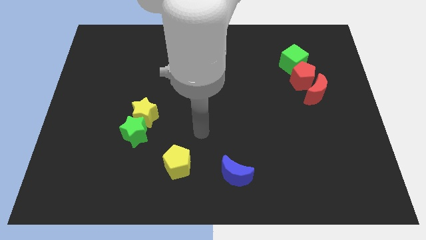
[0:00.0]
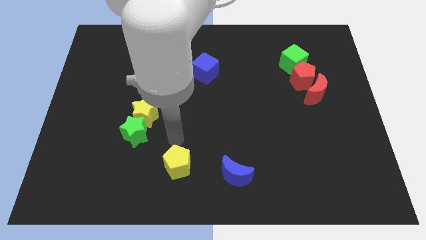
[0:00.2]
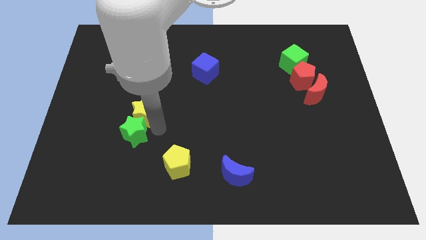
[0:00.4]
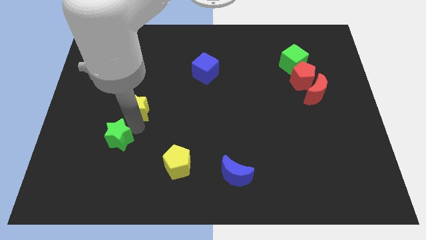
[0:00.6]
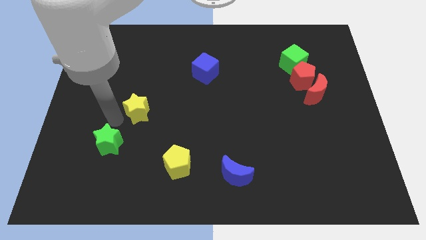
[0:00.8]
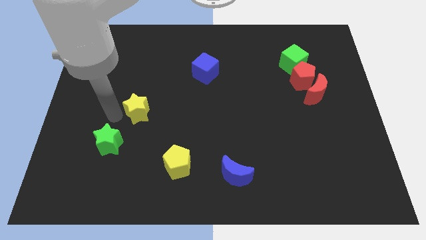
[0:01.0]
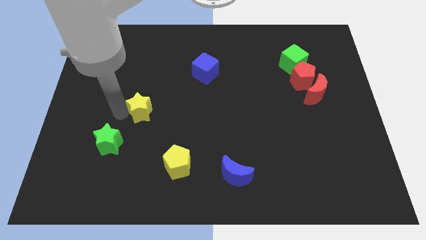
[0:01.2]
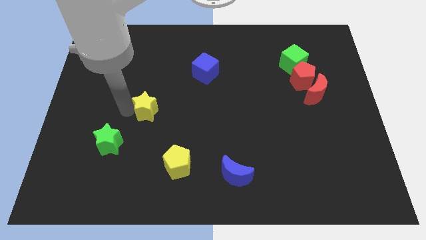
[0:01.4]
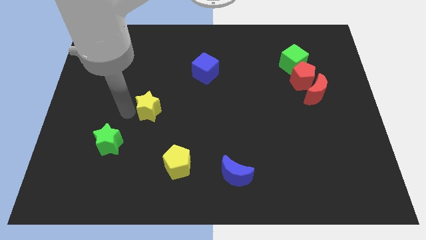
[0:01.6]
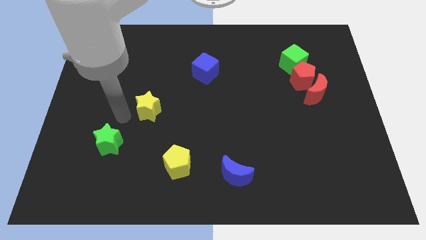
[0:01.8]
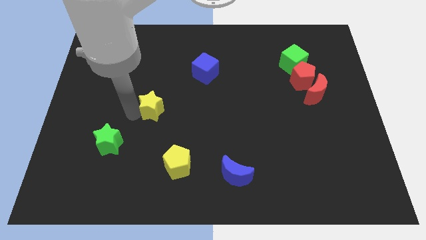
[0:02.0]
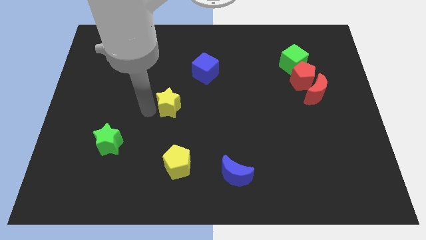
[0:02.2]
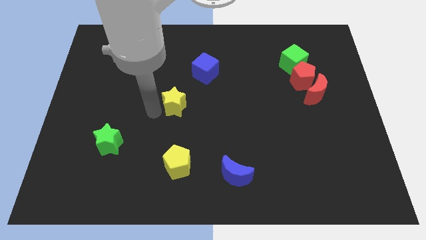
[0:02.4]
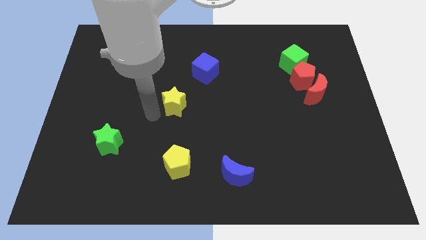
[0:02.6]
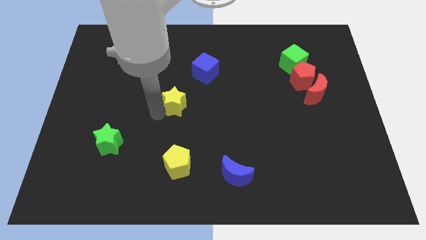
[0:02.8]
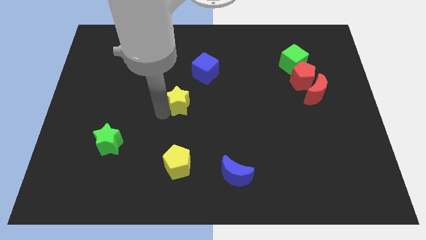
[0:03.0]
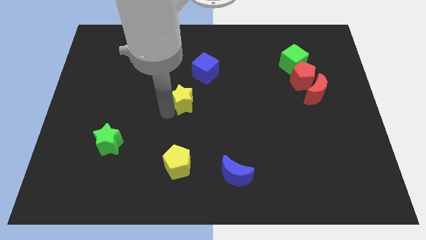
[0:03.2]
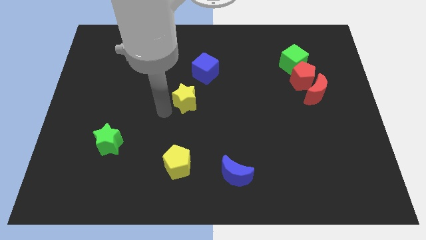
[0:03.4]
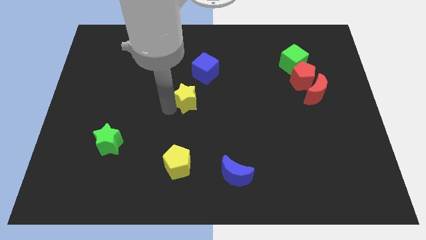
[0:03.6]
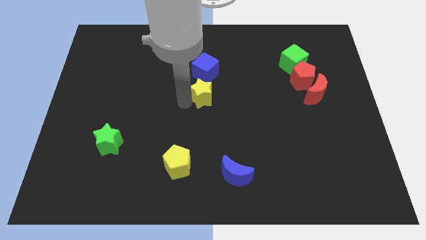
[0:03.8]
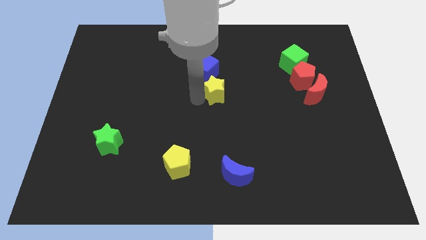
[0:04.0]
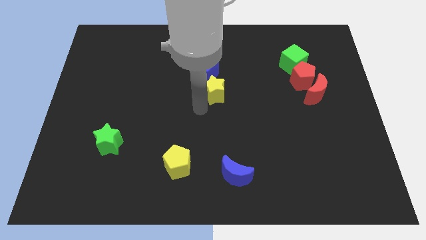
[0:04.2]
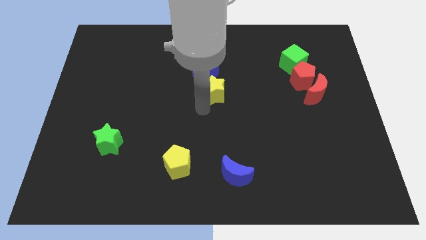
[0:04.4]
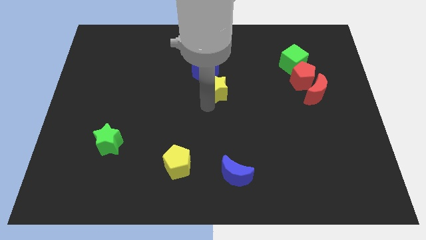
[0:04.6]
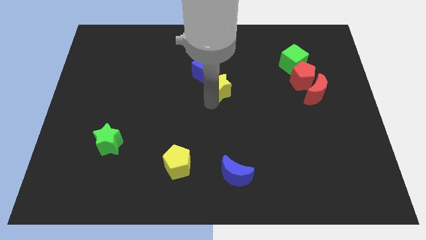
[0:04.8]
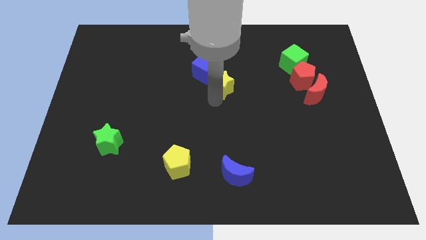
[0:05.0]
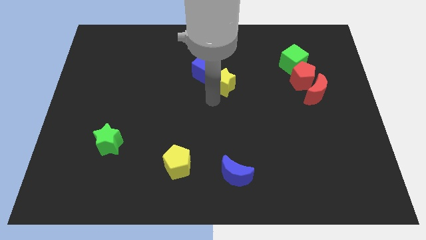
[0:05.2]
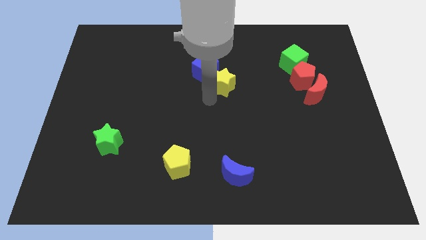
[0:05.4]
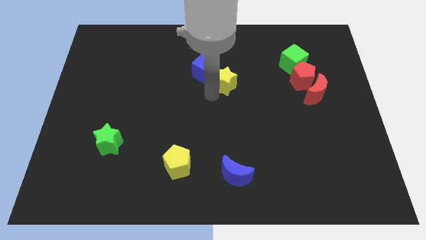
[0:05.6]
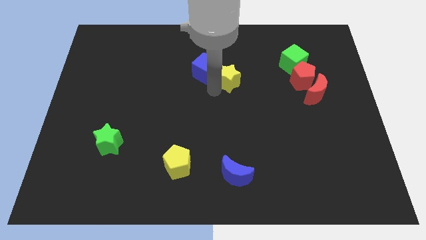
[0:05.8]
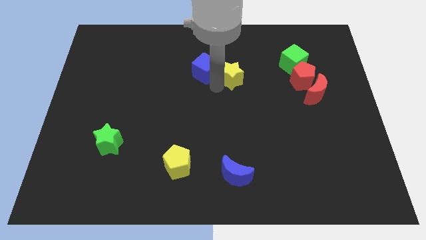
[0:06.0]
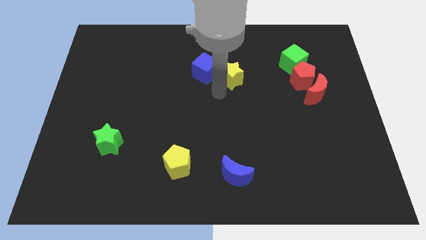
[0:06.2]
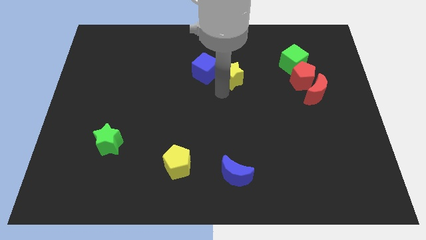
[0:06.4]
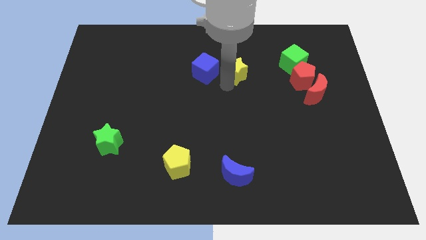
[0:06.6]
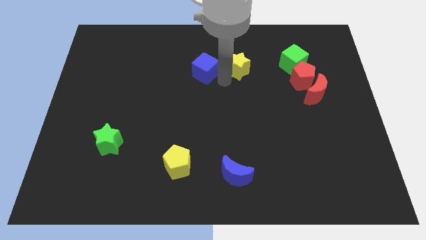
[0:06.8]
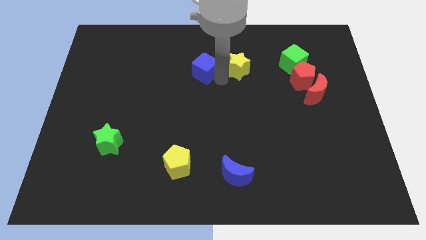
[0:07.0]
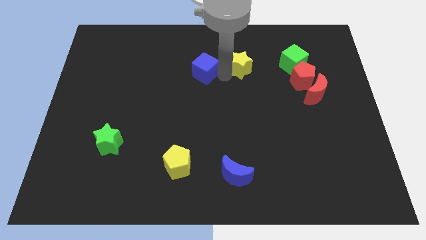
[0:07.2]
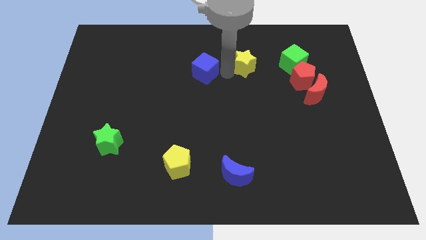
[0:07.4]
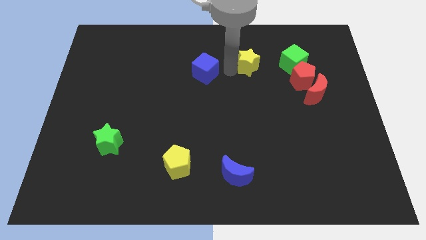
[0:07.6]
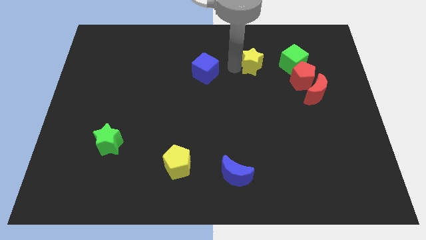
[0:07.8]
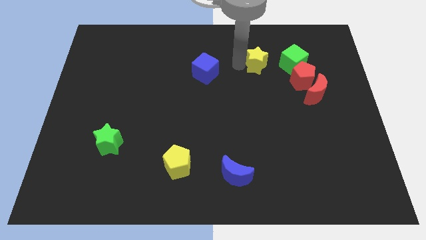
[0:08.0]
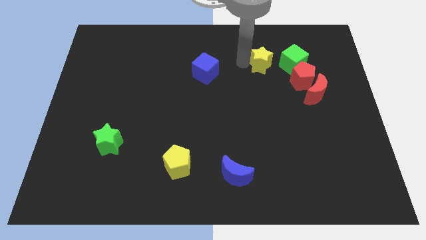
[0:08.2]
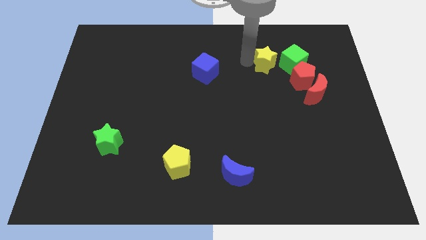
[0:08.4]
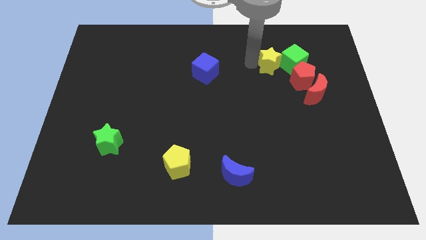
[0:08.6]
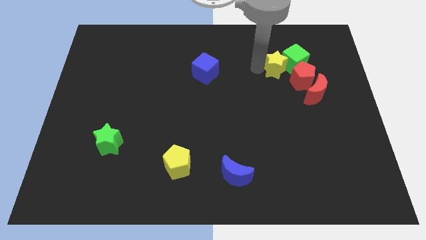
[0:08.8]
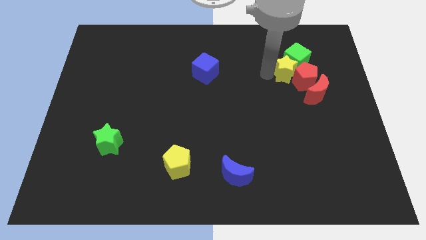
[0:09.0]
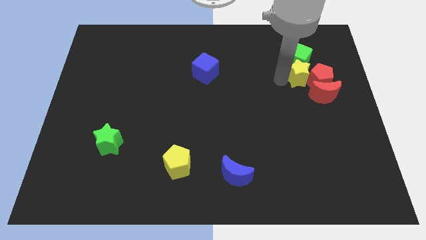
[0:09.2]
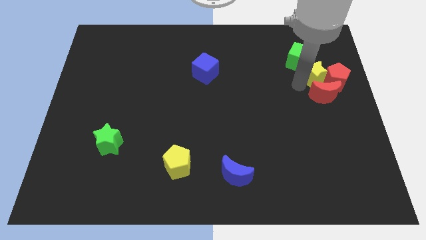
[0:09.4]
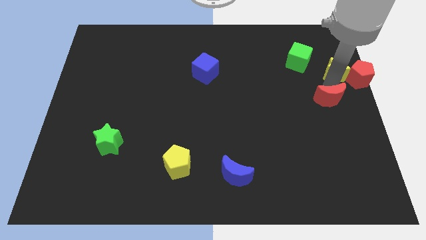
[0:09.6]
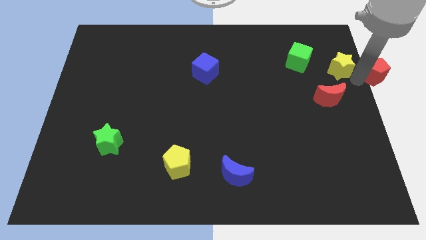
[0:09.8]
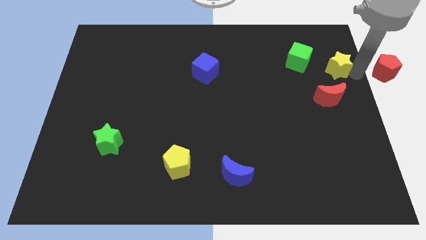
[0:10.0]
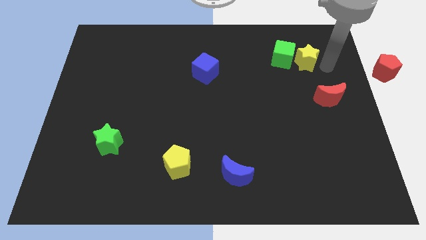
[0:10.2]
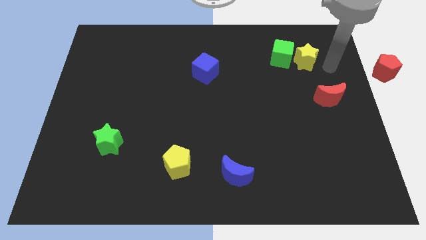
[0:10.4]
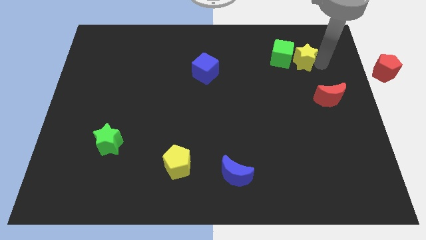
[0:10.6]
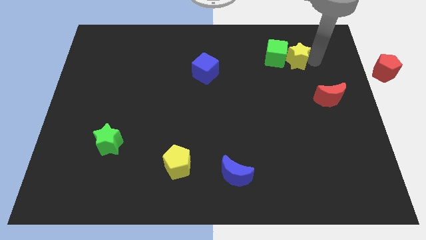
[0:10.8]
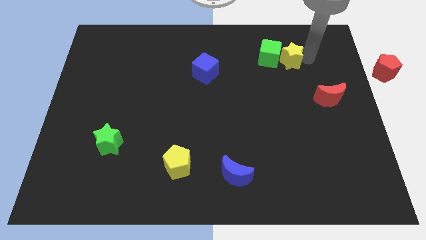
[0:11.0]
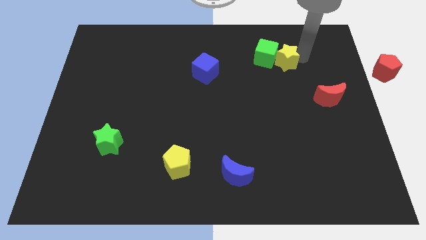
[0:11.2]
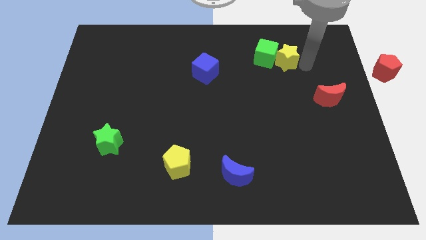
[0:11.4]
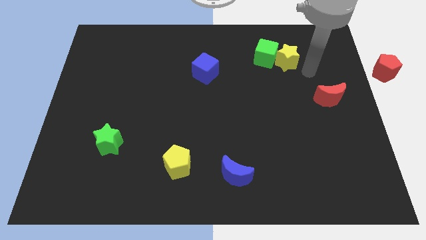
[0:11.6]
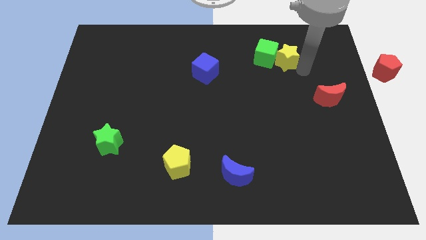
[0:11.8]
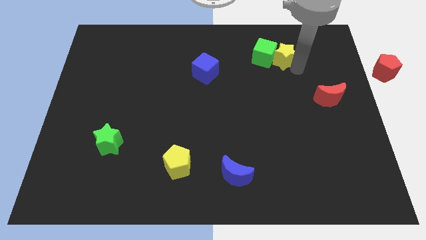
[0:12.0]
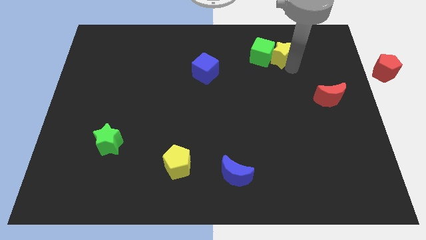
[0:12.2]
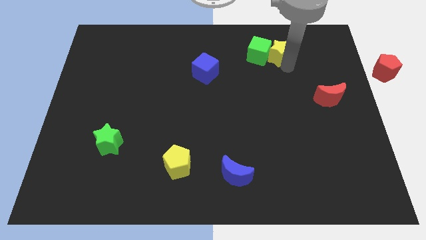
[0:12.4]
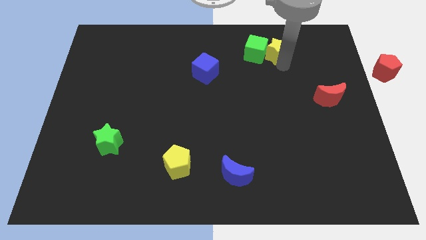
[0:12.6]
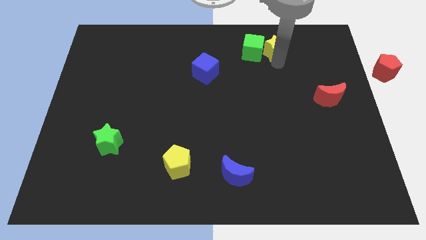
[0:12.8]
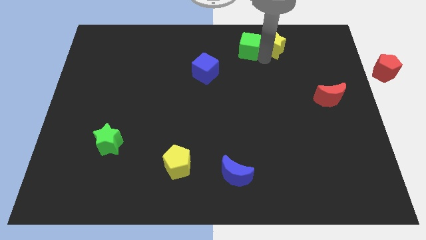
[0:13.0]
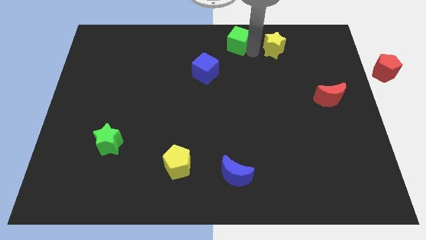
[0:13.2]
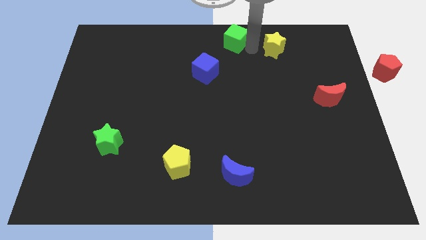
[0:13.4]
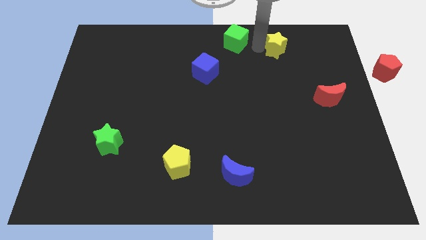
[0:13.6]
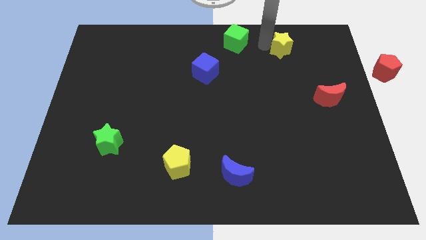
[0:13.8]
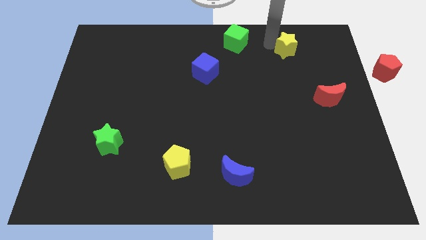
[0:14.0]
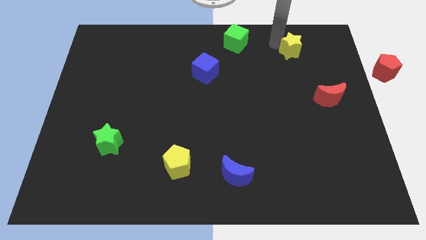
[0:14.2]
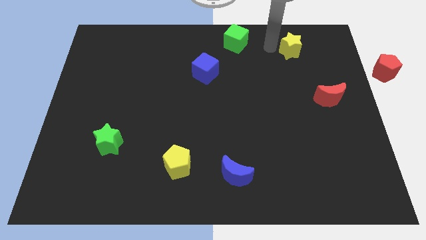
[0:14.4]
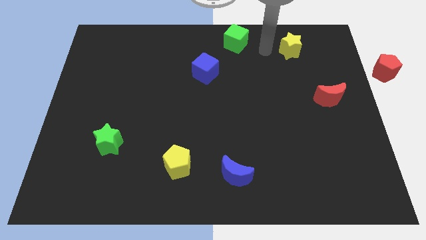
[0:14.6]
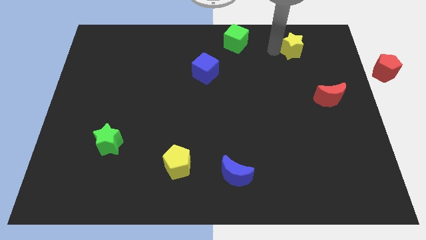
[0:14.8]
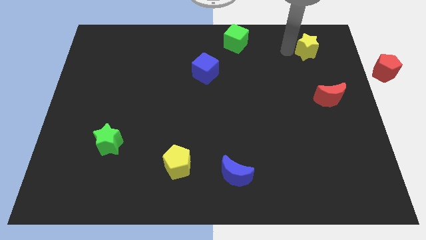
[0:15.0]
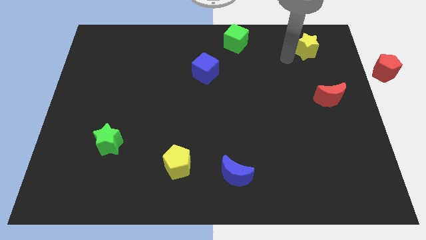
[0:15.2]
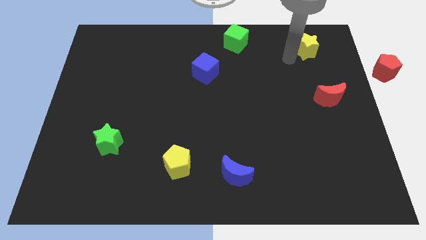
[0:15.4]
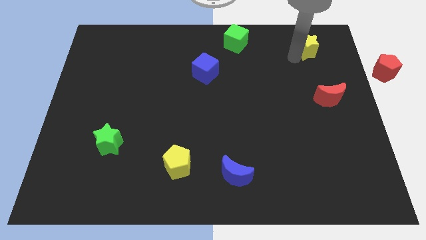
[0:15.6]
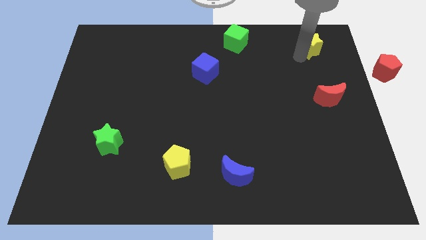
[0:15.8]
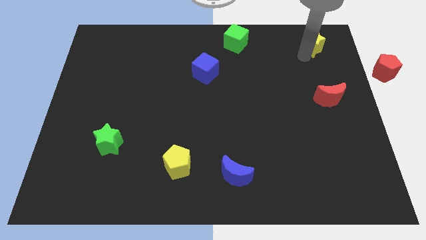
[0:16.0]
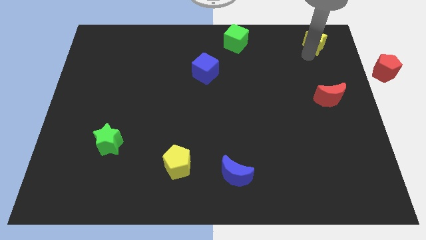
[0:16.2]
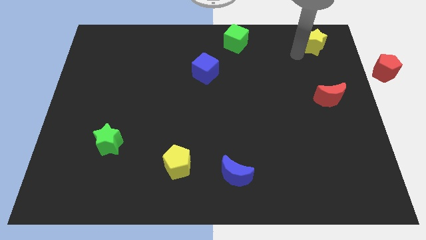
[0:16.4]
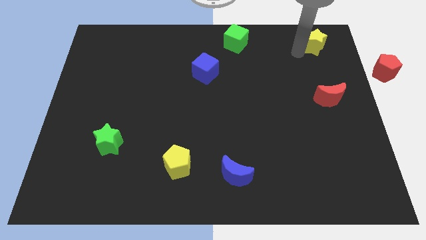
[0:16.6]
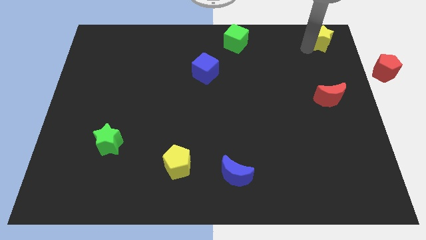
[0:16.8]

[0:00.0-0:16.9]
push the yellow star to the upper right corner
